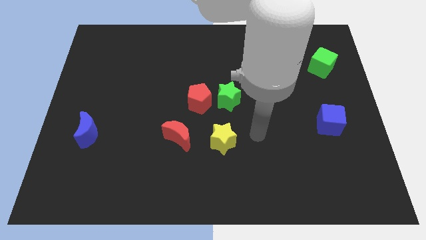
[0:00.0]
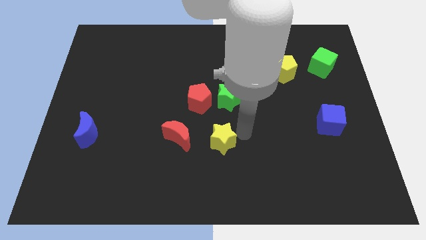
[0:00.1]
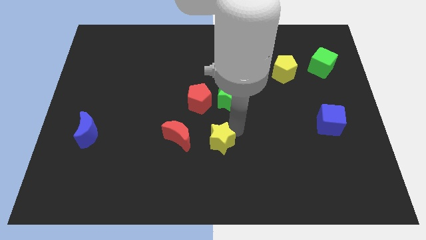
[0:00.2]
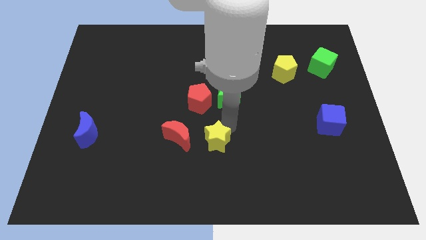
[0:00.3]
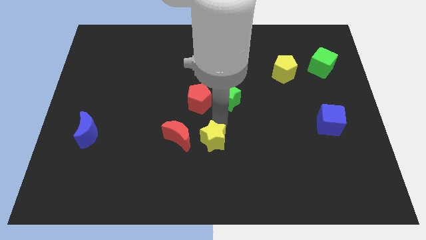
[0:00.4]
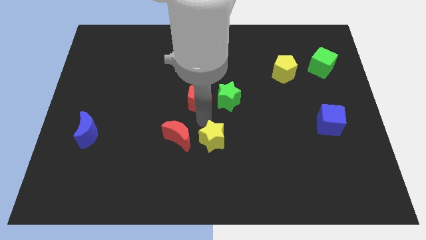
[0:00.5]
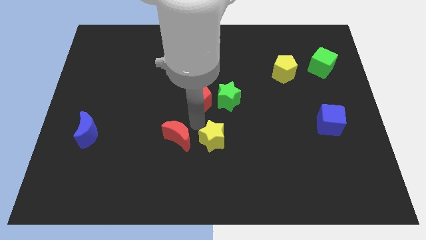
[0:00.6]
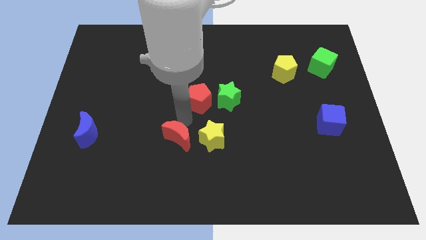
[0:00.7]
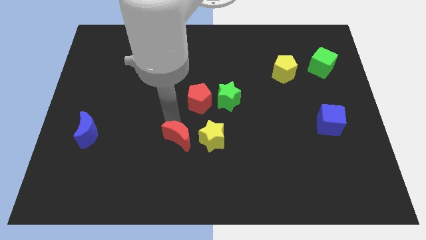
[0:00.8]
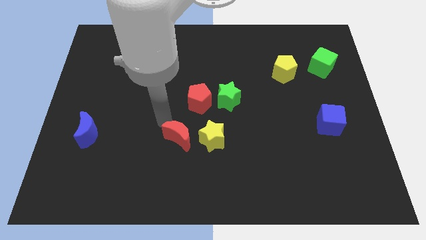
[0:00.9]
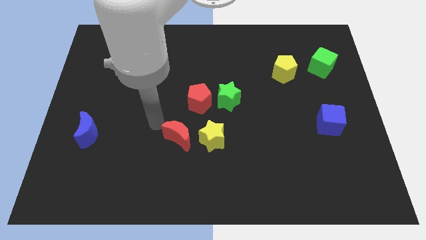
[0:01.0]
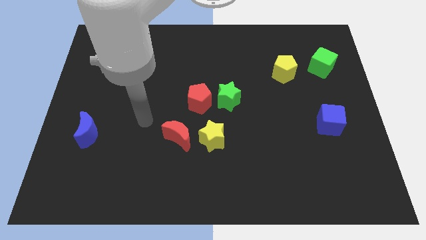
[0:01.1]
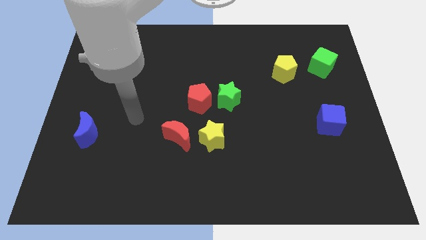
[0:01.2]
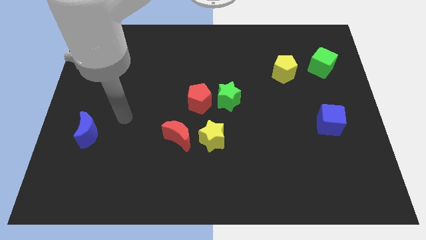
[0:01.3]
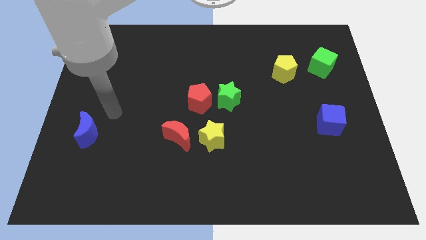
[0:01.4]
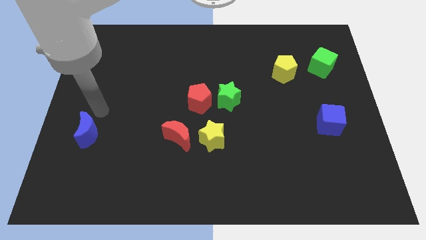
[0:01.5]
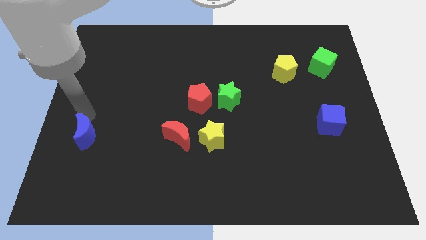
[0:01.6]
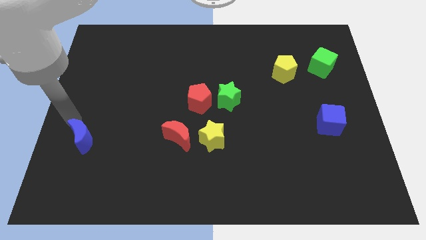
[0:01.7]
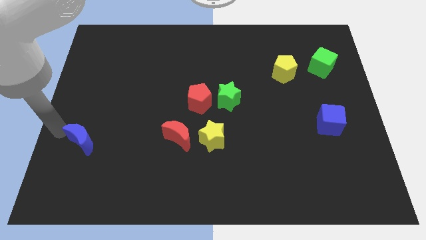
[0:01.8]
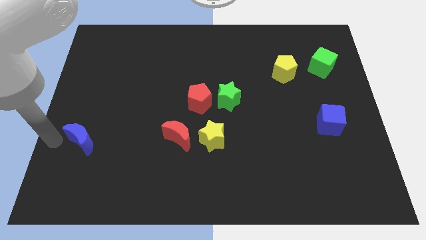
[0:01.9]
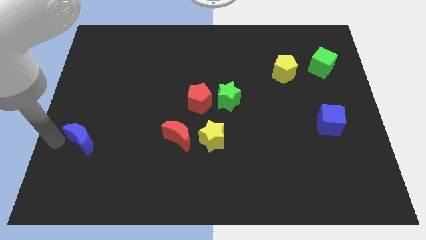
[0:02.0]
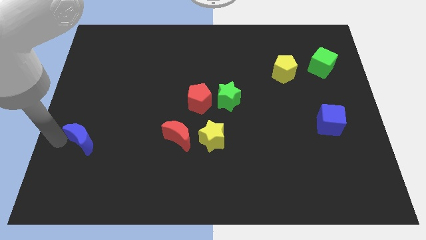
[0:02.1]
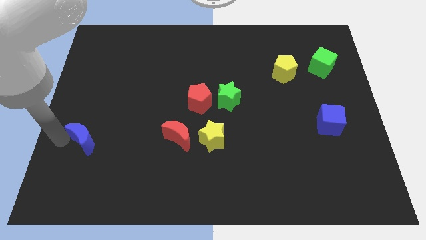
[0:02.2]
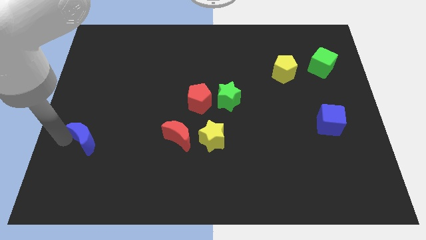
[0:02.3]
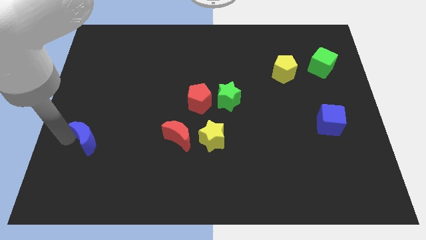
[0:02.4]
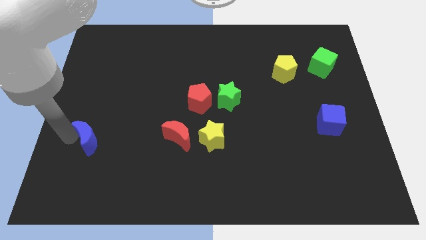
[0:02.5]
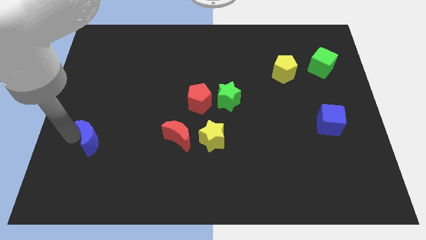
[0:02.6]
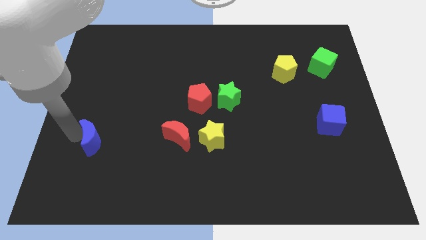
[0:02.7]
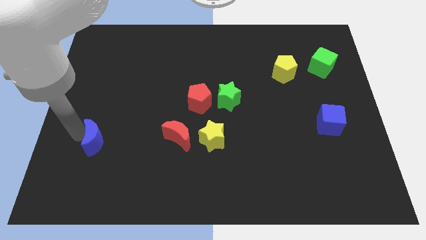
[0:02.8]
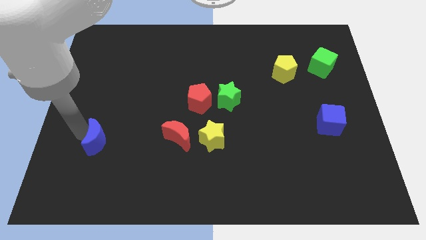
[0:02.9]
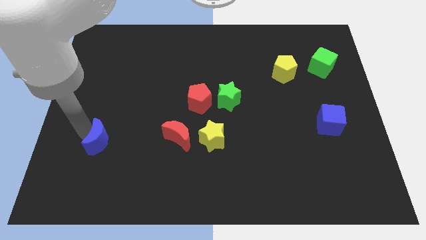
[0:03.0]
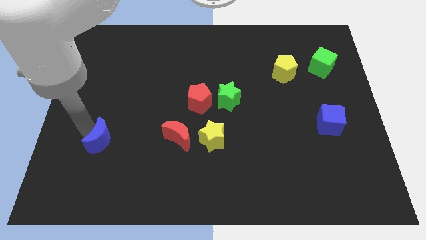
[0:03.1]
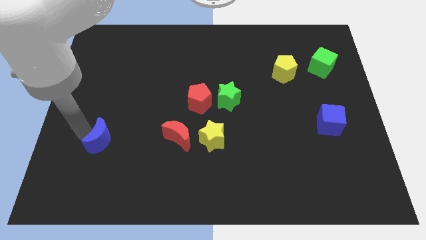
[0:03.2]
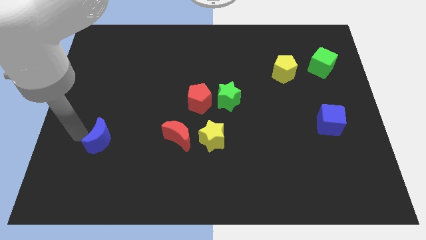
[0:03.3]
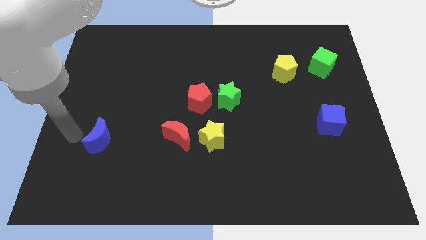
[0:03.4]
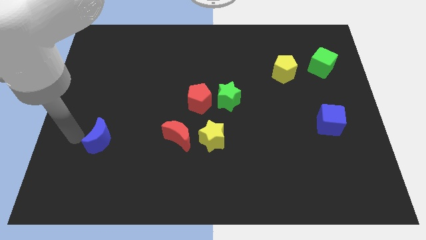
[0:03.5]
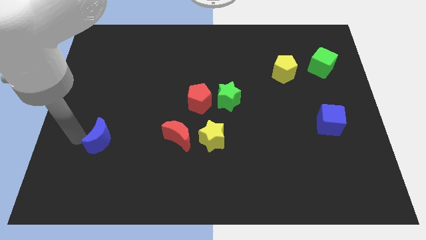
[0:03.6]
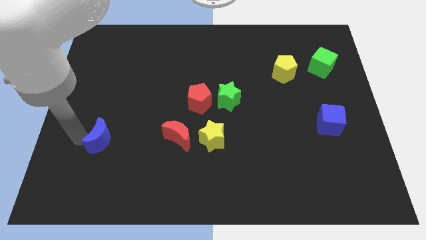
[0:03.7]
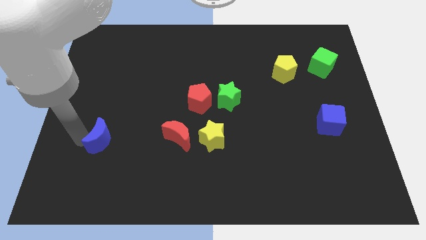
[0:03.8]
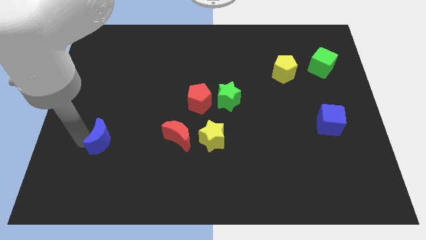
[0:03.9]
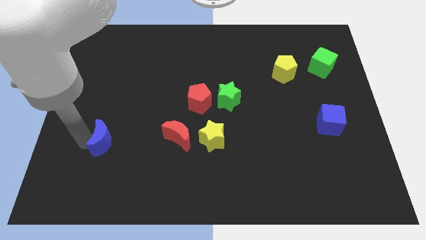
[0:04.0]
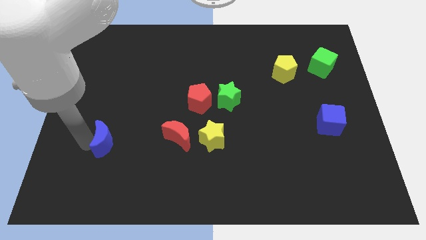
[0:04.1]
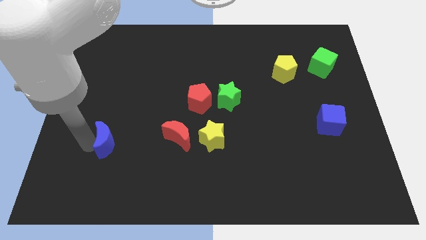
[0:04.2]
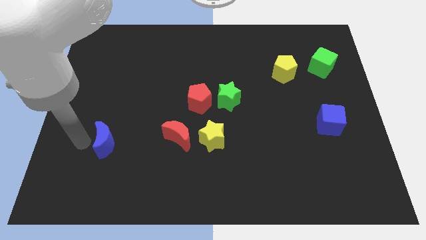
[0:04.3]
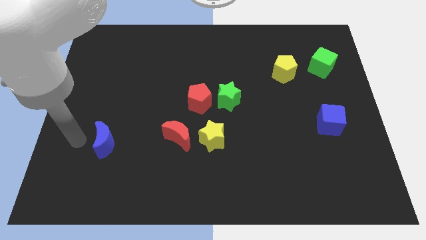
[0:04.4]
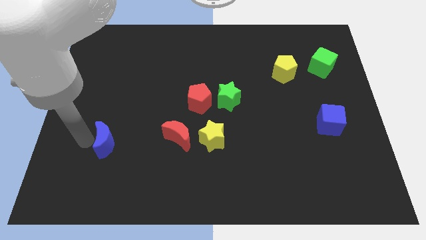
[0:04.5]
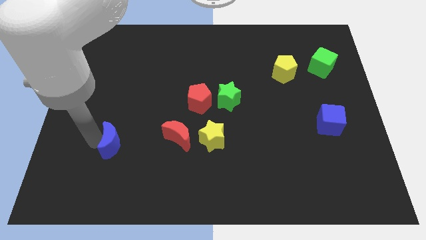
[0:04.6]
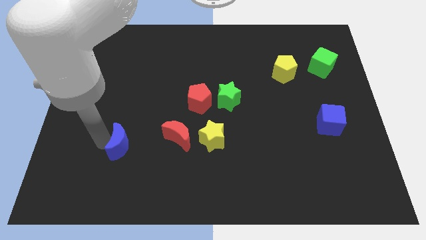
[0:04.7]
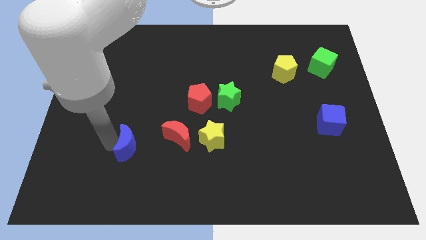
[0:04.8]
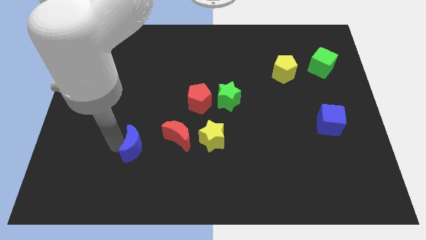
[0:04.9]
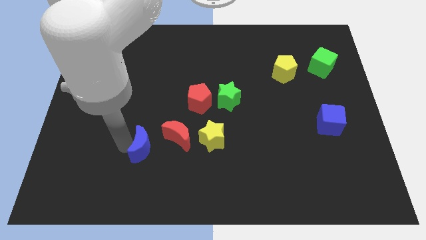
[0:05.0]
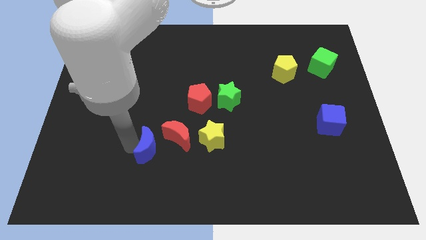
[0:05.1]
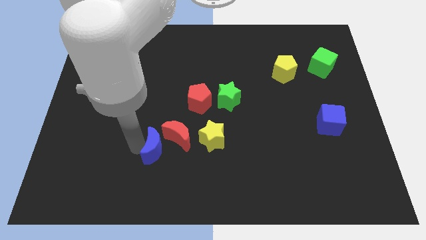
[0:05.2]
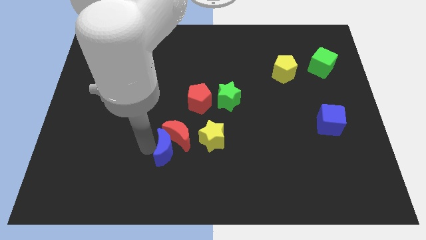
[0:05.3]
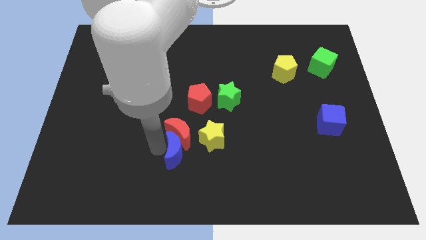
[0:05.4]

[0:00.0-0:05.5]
put the blue moon to the bottom right side of the red moon

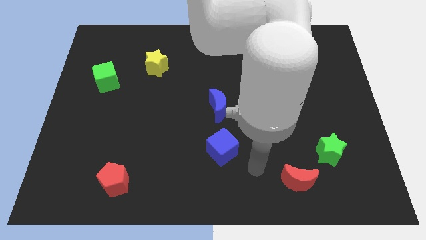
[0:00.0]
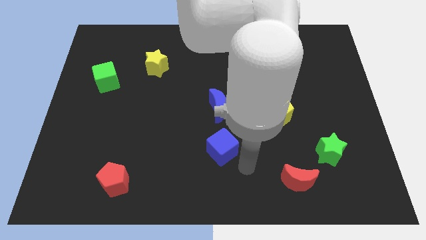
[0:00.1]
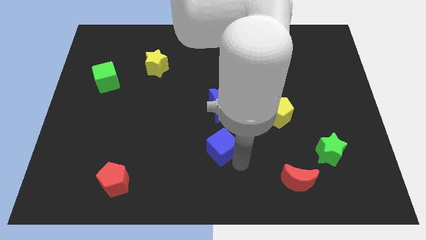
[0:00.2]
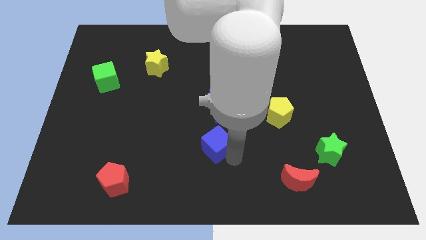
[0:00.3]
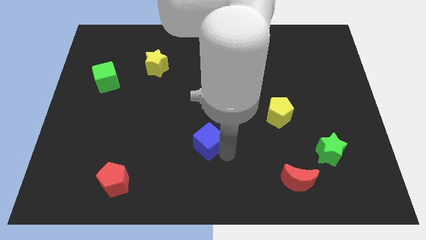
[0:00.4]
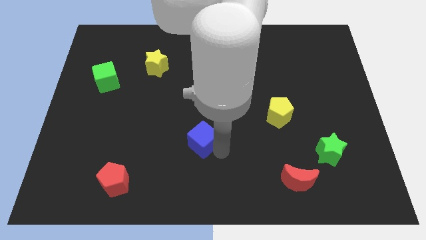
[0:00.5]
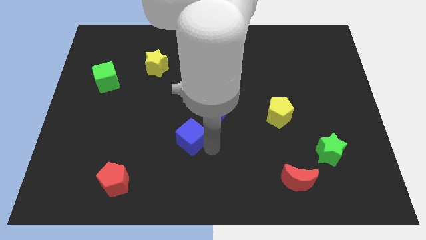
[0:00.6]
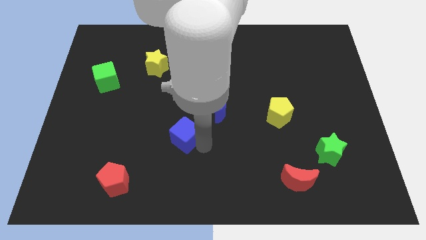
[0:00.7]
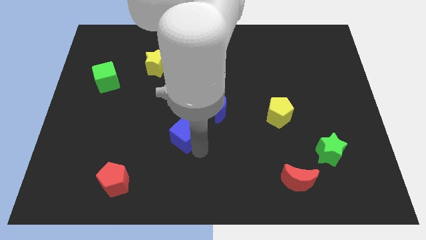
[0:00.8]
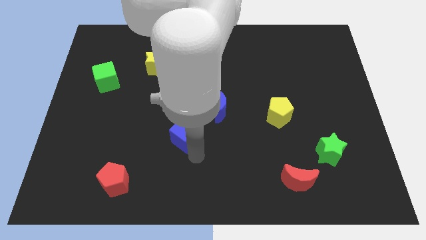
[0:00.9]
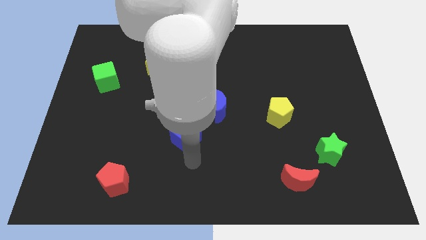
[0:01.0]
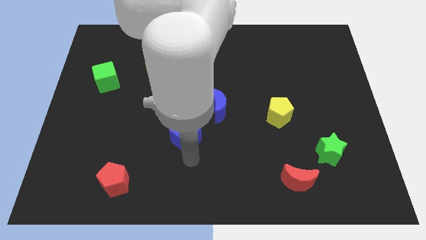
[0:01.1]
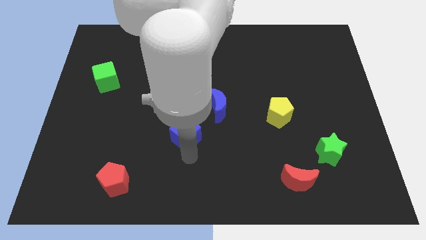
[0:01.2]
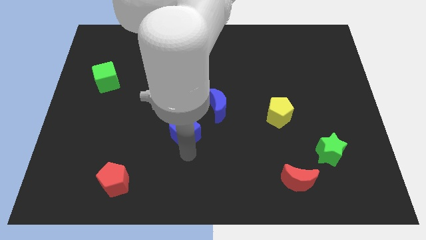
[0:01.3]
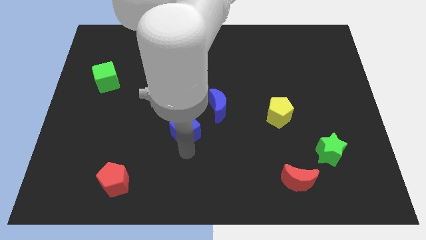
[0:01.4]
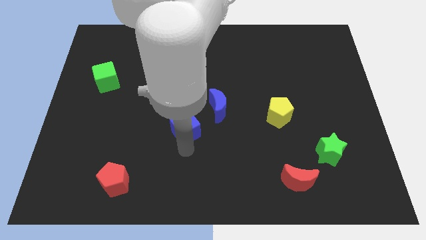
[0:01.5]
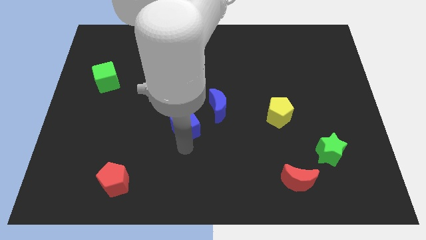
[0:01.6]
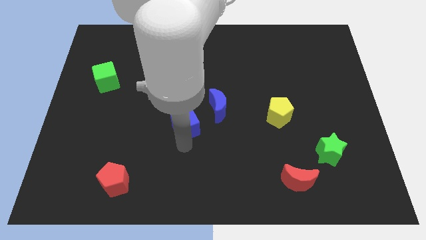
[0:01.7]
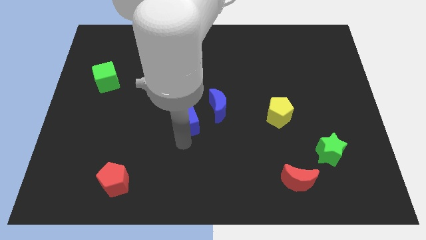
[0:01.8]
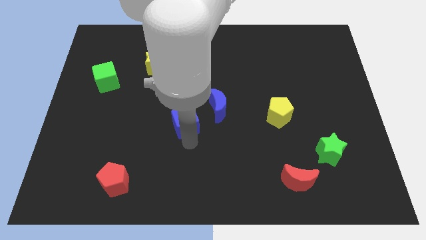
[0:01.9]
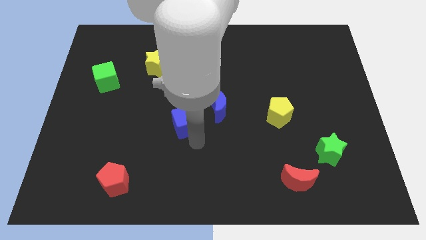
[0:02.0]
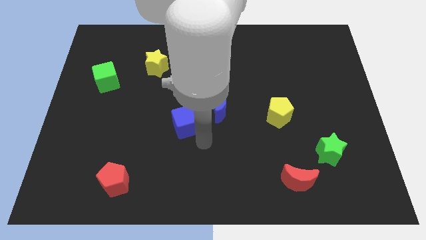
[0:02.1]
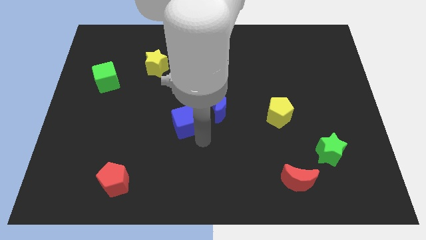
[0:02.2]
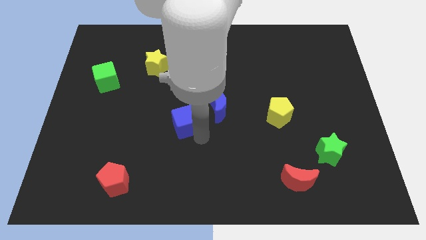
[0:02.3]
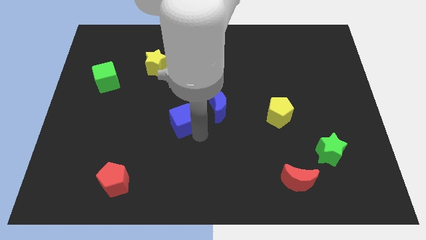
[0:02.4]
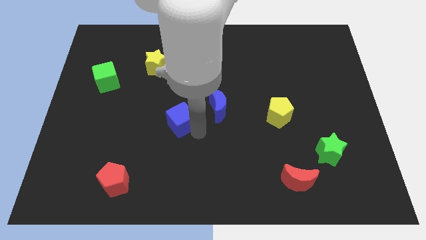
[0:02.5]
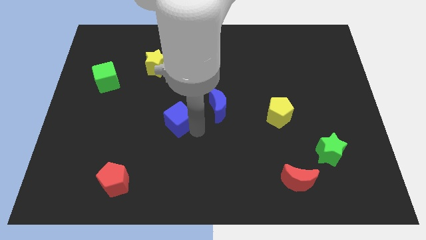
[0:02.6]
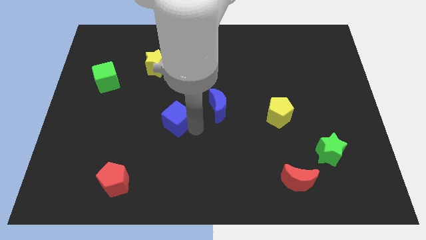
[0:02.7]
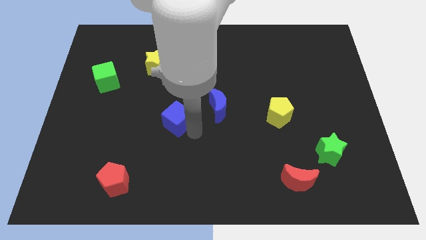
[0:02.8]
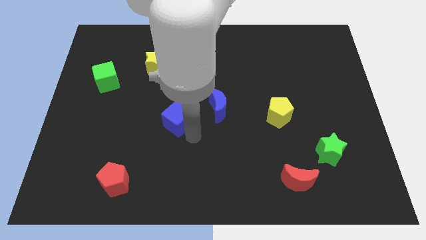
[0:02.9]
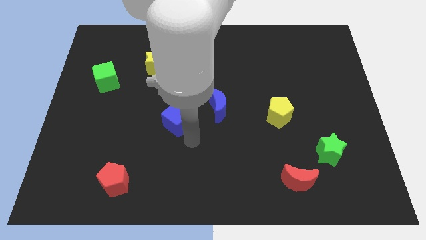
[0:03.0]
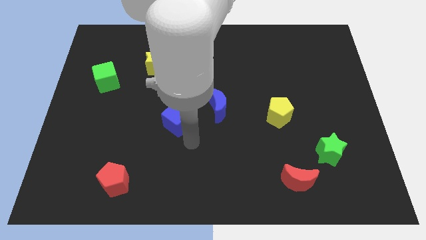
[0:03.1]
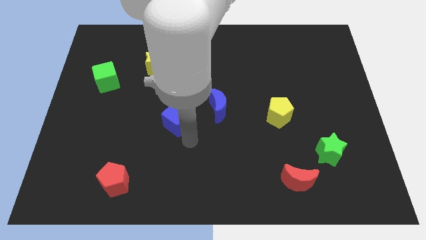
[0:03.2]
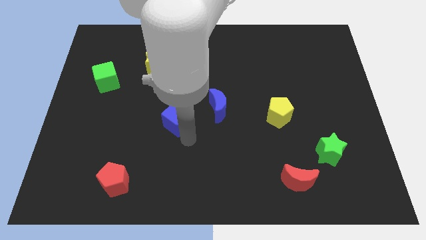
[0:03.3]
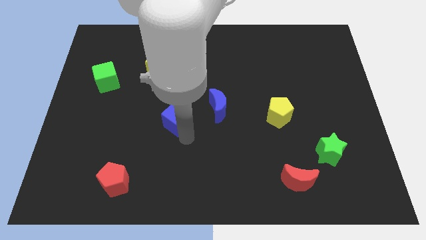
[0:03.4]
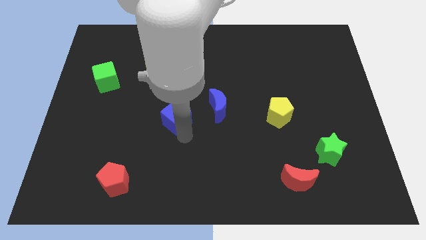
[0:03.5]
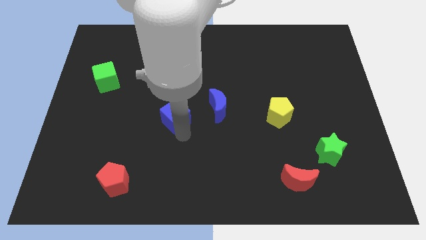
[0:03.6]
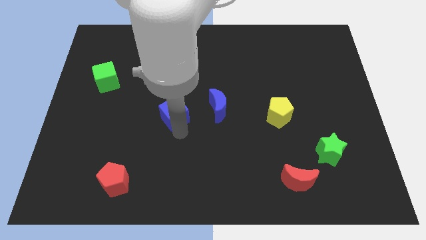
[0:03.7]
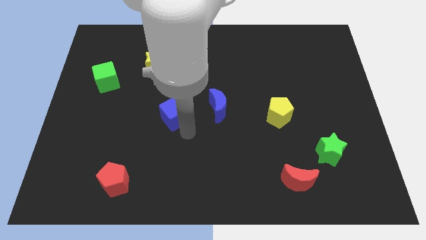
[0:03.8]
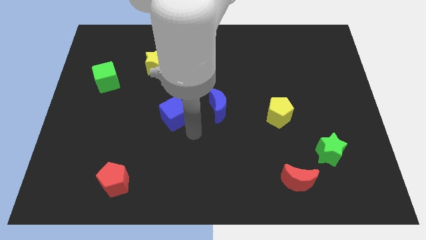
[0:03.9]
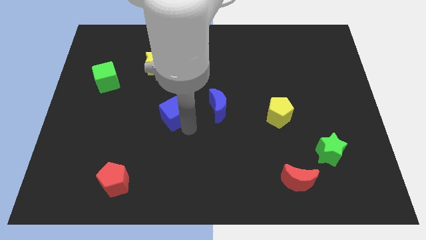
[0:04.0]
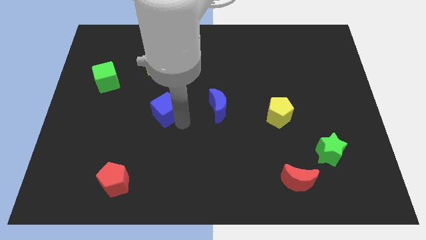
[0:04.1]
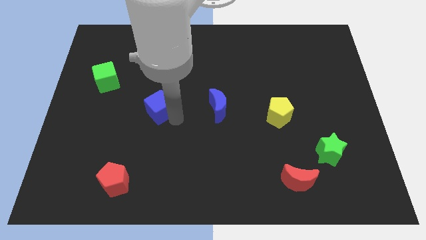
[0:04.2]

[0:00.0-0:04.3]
push the blue cube to the bottom of the yellow star
